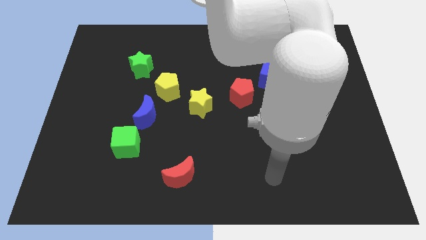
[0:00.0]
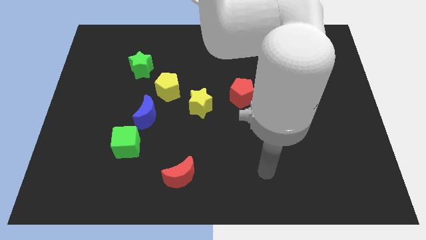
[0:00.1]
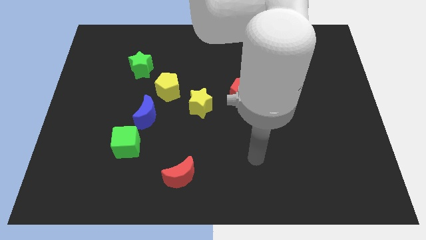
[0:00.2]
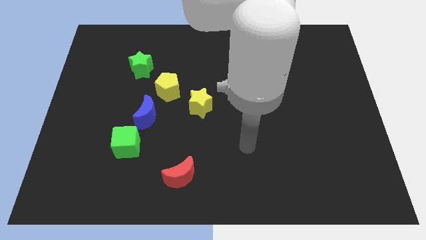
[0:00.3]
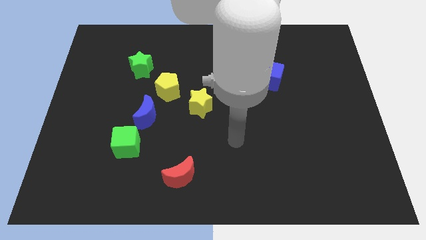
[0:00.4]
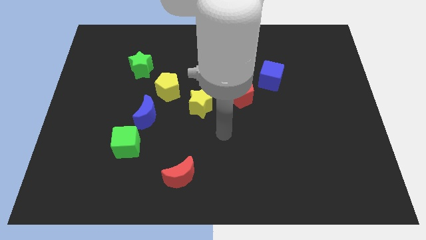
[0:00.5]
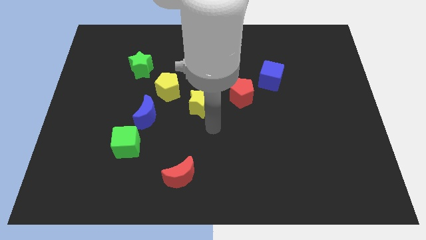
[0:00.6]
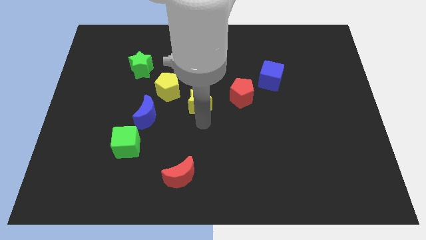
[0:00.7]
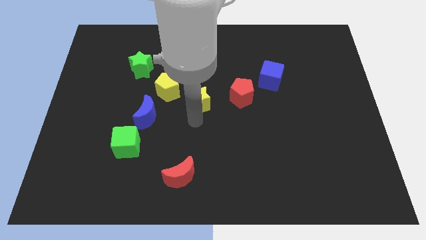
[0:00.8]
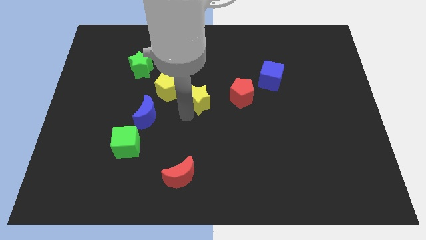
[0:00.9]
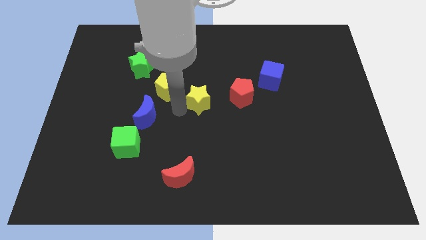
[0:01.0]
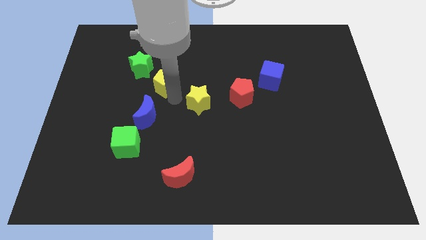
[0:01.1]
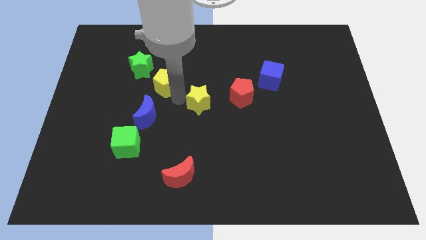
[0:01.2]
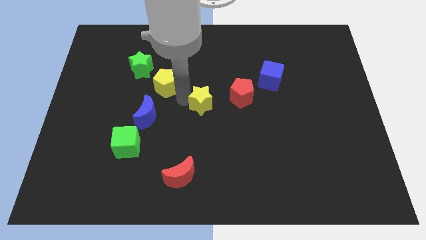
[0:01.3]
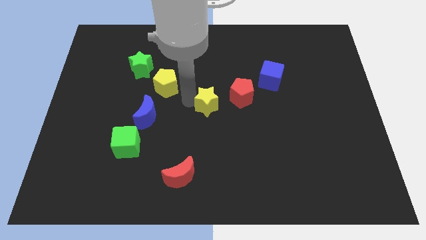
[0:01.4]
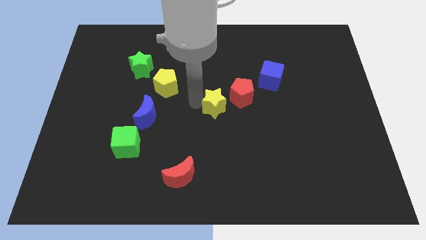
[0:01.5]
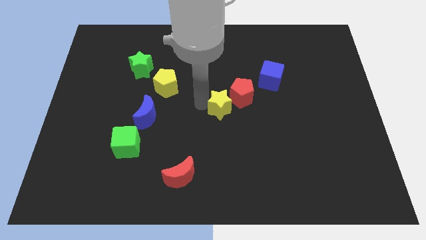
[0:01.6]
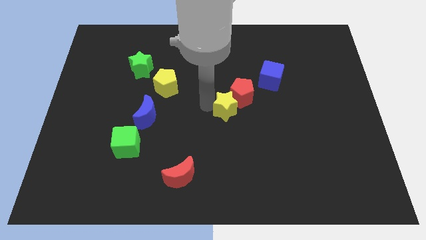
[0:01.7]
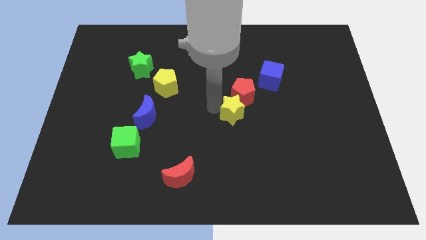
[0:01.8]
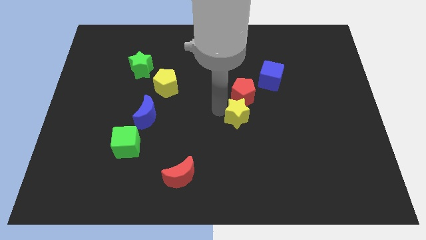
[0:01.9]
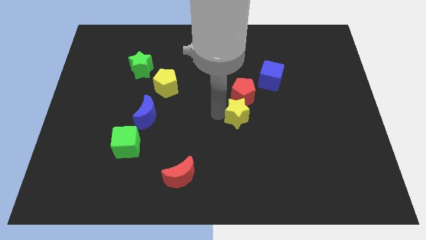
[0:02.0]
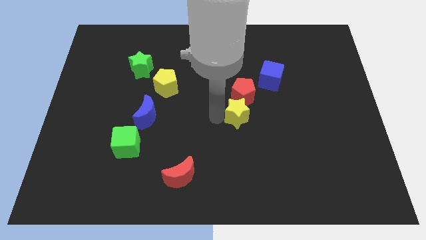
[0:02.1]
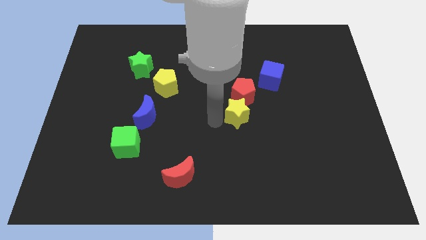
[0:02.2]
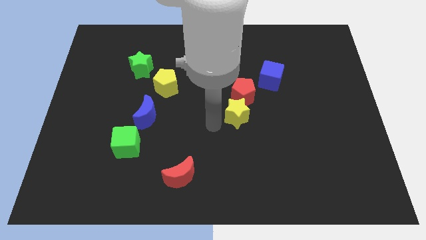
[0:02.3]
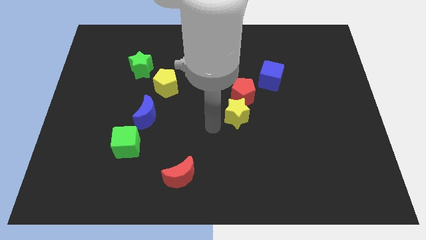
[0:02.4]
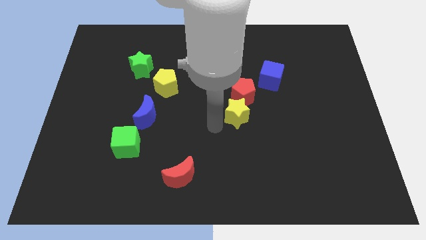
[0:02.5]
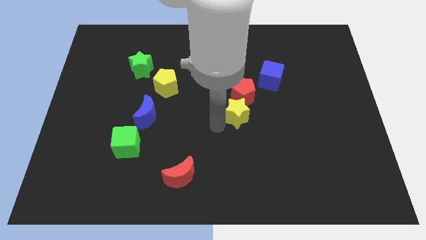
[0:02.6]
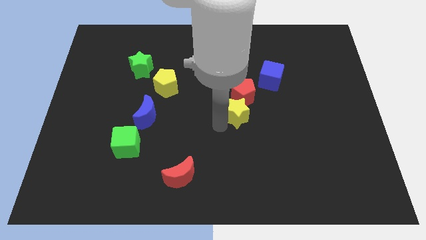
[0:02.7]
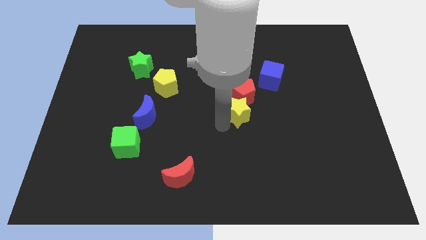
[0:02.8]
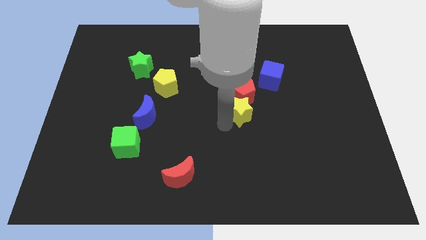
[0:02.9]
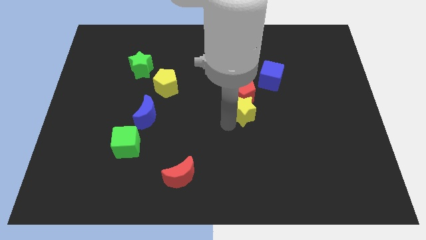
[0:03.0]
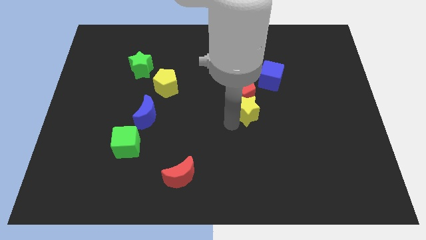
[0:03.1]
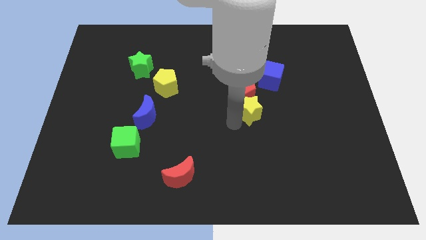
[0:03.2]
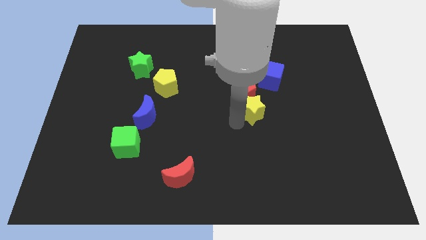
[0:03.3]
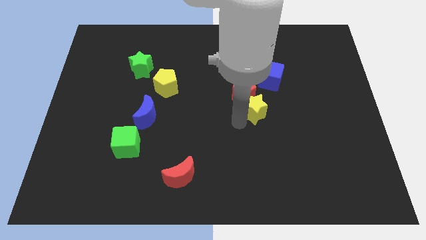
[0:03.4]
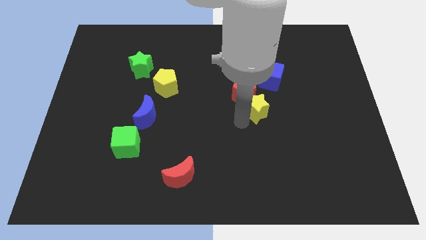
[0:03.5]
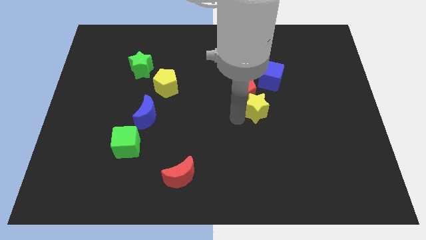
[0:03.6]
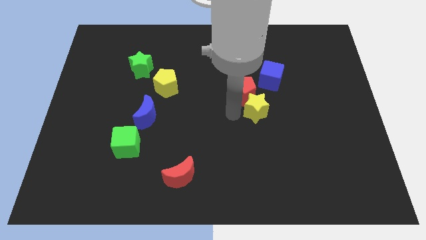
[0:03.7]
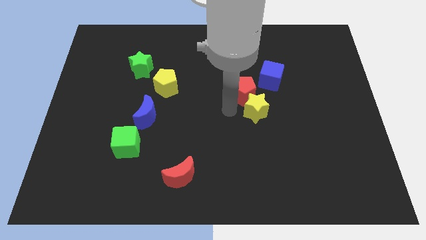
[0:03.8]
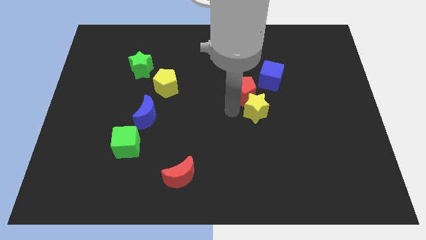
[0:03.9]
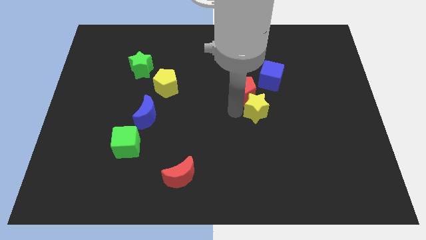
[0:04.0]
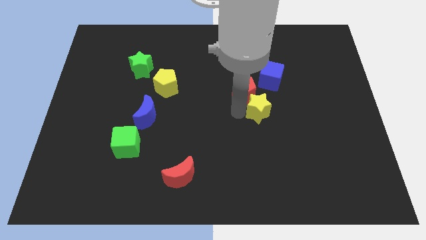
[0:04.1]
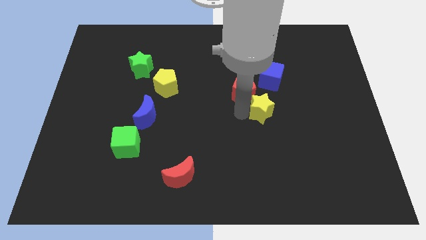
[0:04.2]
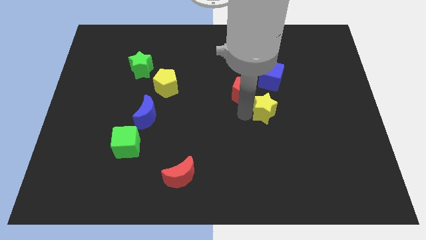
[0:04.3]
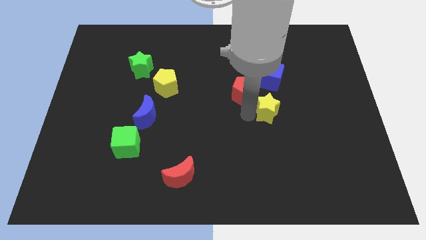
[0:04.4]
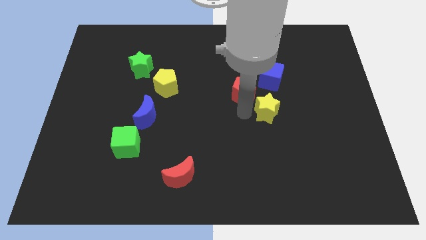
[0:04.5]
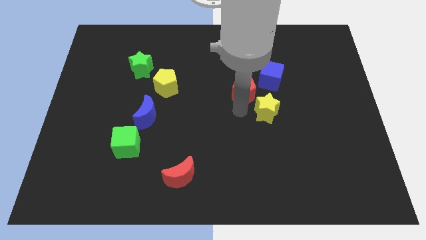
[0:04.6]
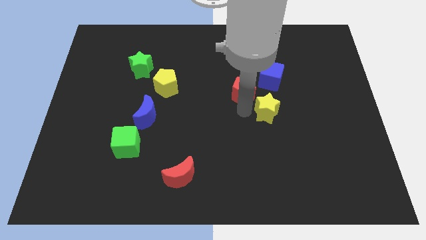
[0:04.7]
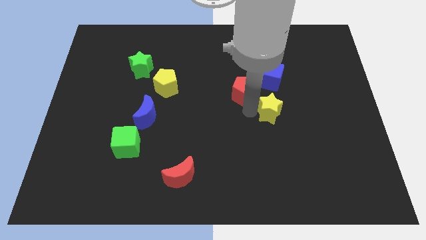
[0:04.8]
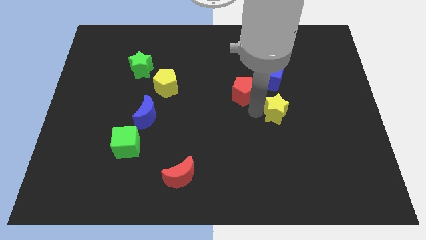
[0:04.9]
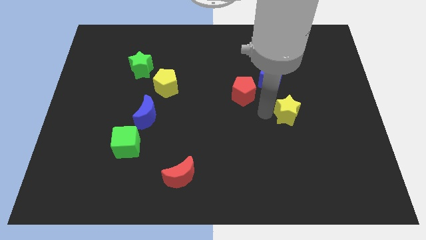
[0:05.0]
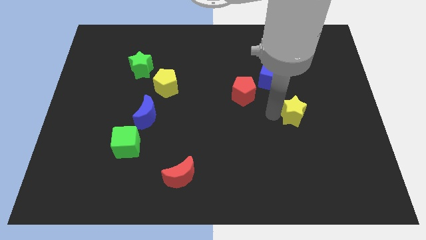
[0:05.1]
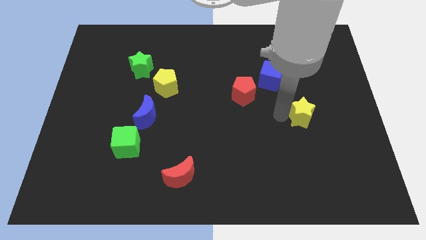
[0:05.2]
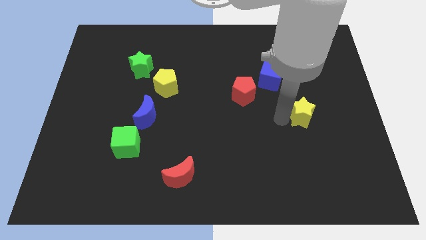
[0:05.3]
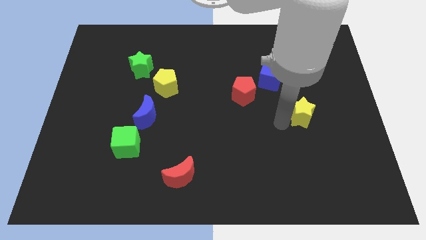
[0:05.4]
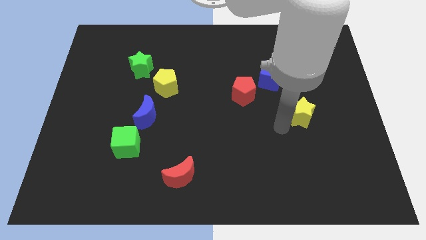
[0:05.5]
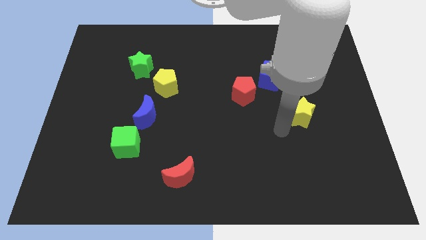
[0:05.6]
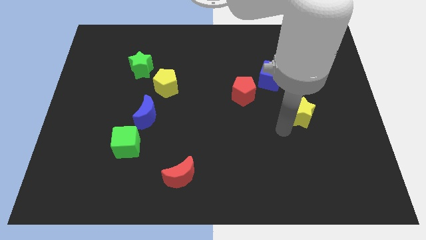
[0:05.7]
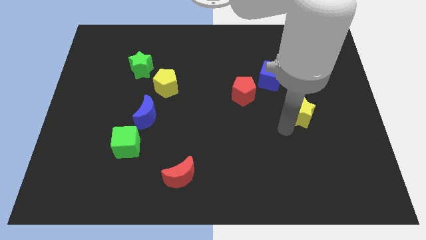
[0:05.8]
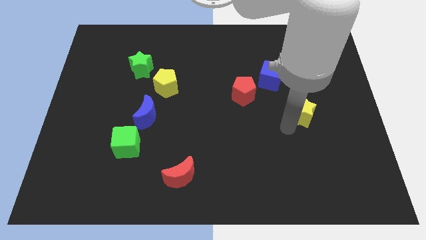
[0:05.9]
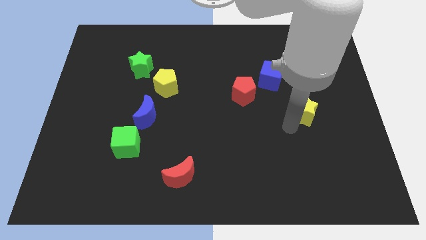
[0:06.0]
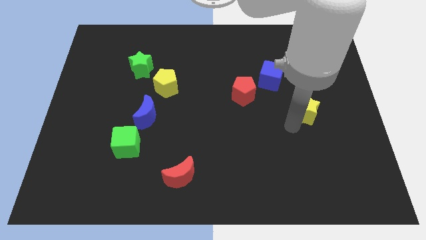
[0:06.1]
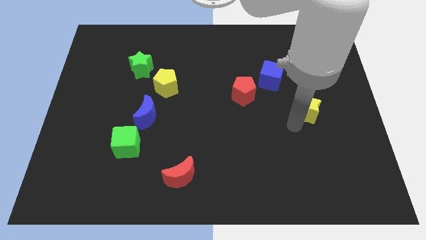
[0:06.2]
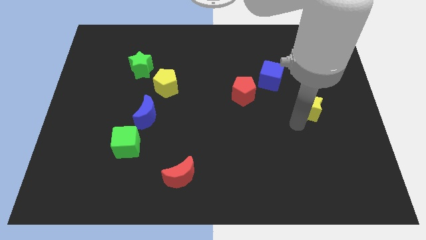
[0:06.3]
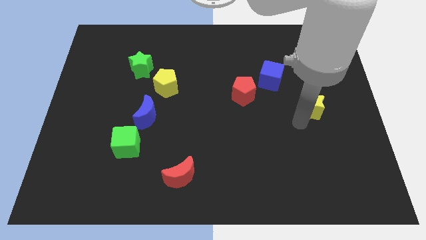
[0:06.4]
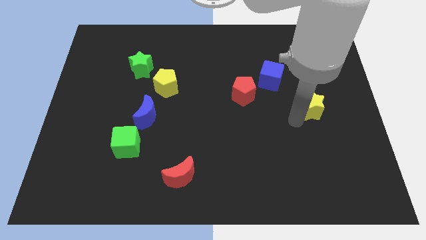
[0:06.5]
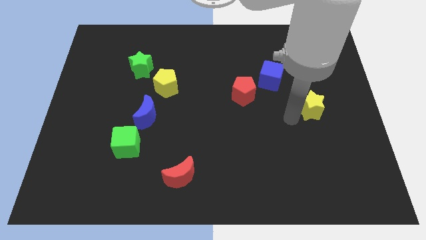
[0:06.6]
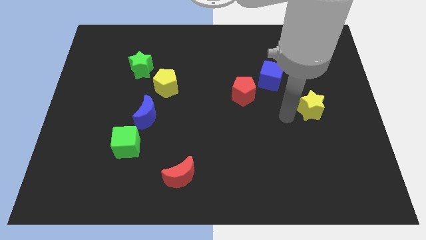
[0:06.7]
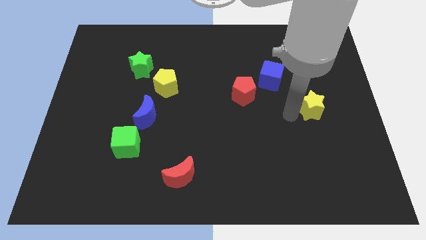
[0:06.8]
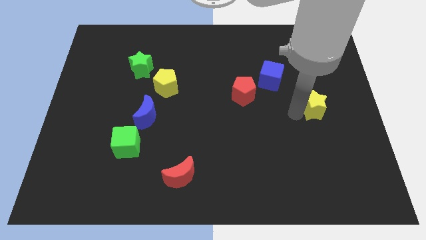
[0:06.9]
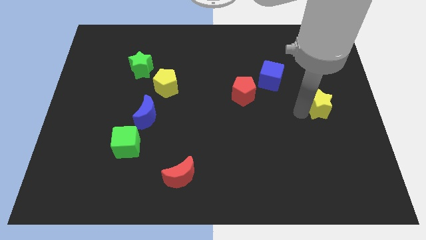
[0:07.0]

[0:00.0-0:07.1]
move the yellow star to the center right
